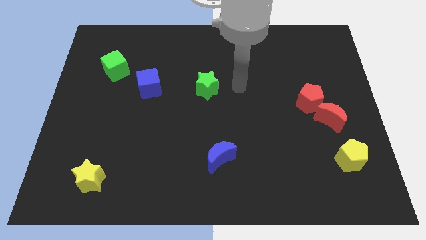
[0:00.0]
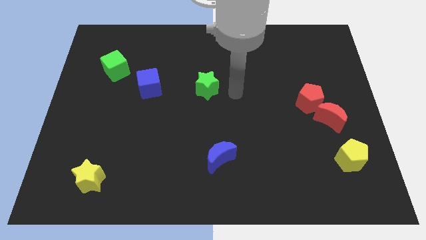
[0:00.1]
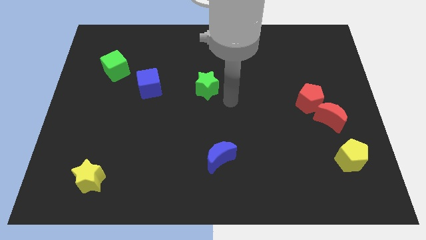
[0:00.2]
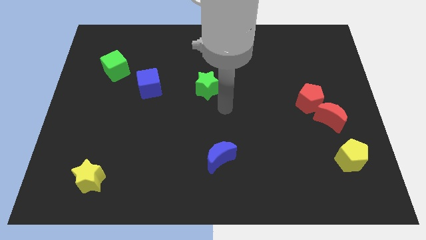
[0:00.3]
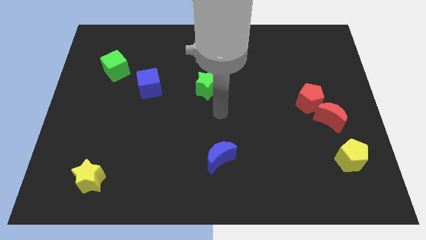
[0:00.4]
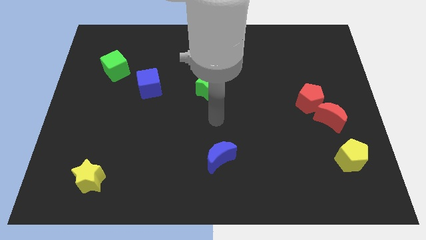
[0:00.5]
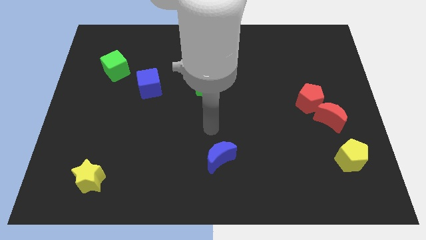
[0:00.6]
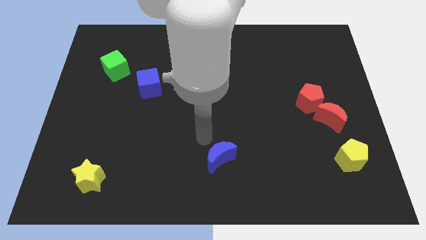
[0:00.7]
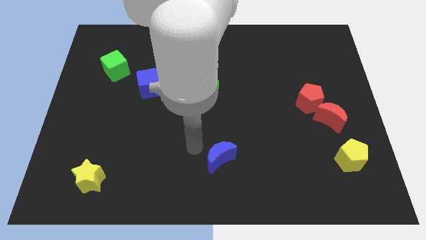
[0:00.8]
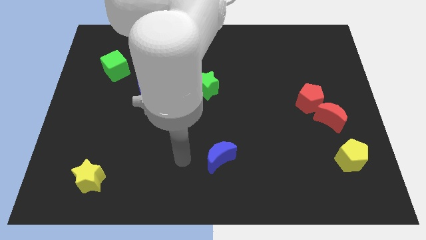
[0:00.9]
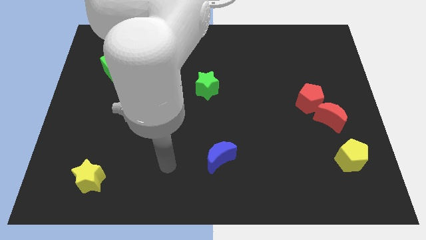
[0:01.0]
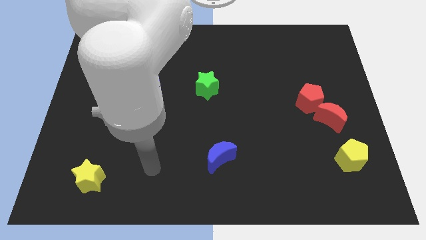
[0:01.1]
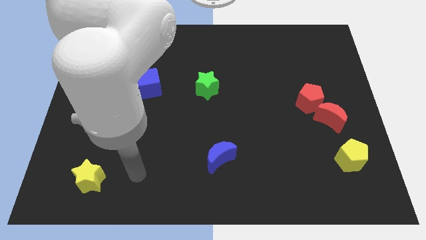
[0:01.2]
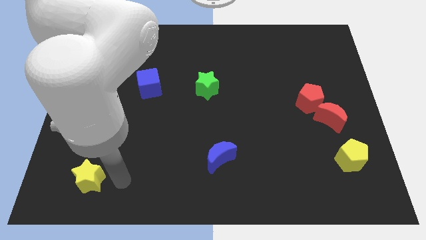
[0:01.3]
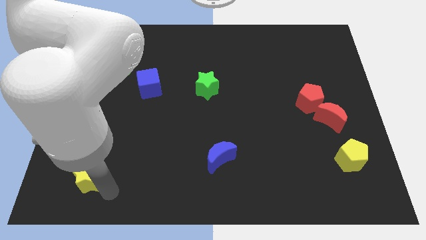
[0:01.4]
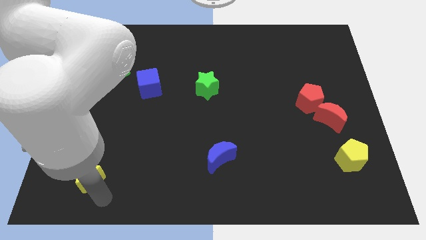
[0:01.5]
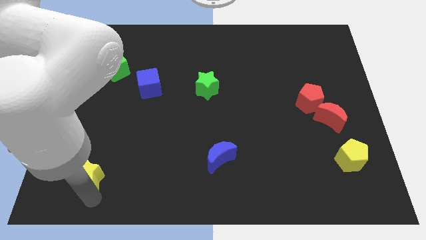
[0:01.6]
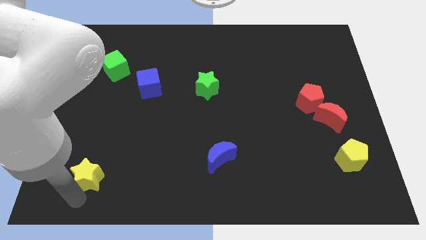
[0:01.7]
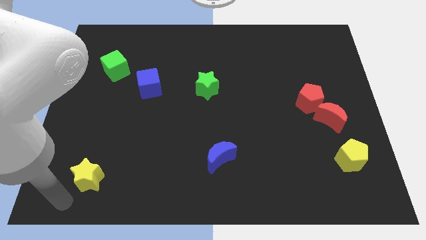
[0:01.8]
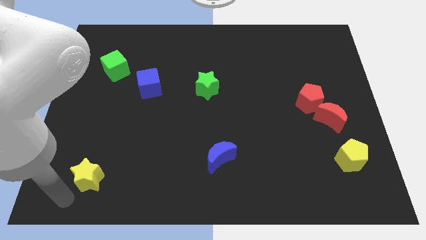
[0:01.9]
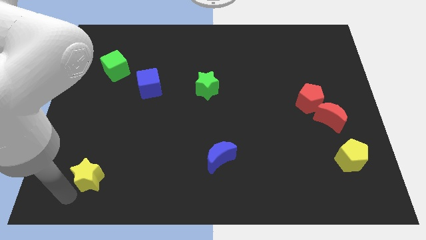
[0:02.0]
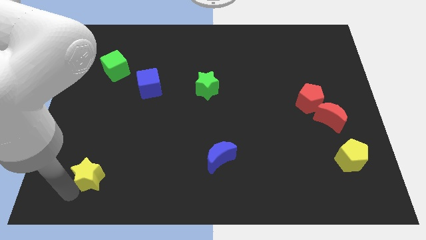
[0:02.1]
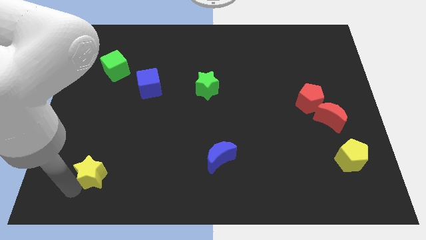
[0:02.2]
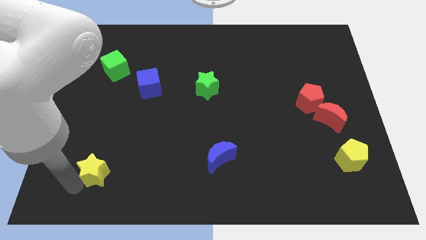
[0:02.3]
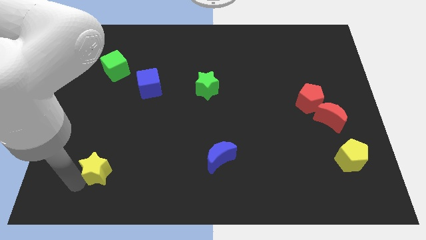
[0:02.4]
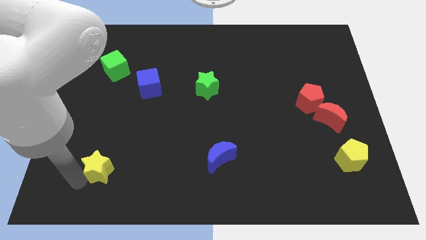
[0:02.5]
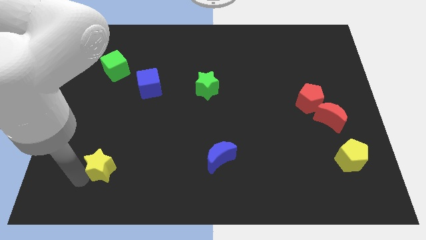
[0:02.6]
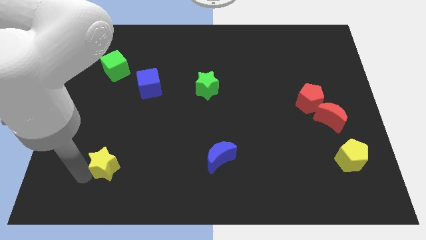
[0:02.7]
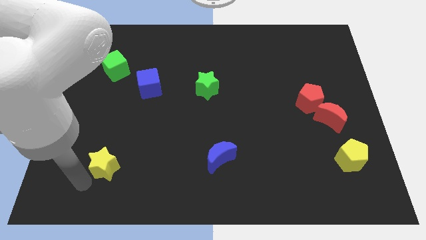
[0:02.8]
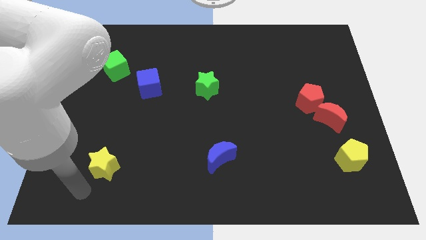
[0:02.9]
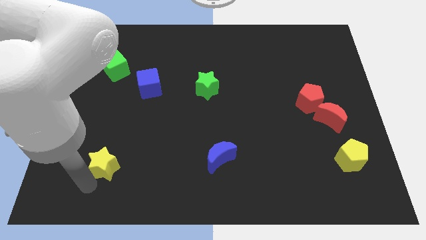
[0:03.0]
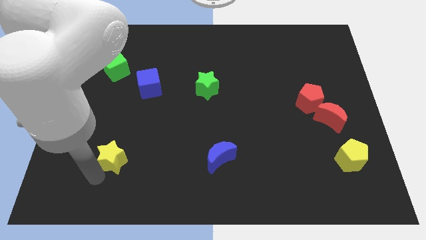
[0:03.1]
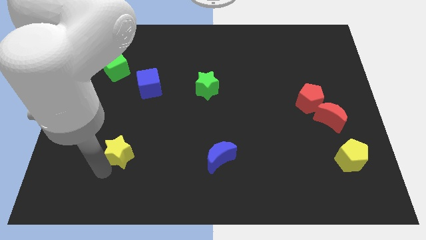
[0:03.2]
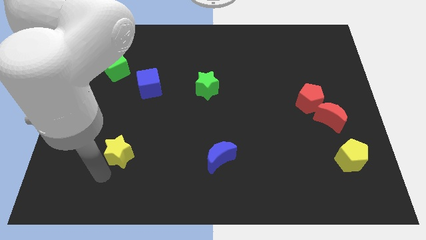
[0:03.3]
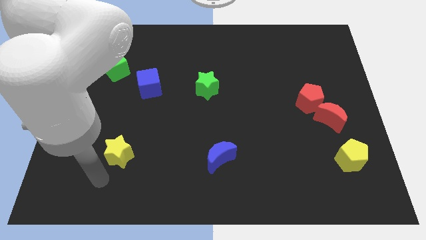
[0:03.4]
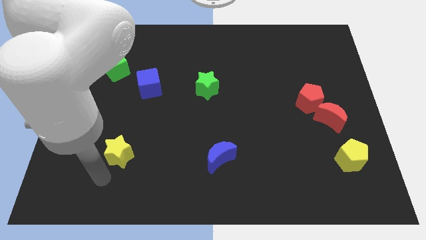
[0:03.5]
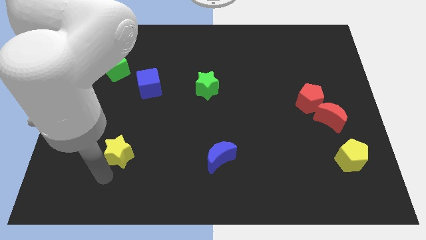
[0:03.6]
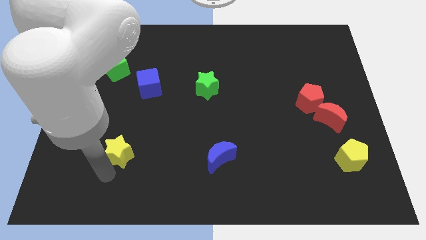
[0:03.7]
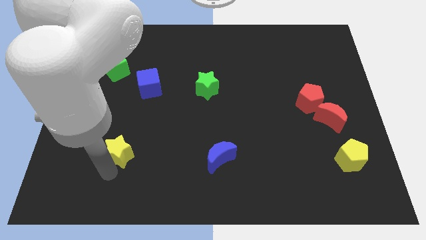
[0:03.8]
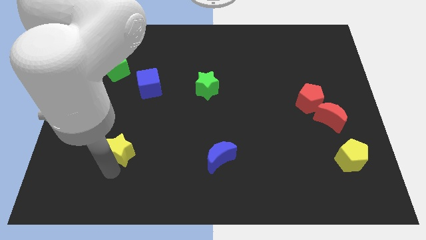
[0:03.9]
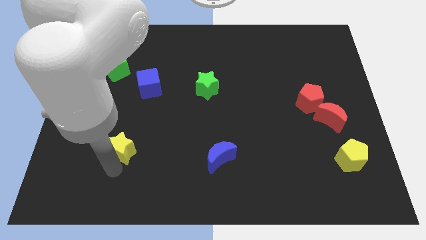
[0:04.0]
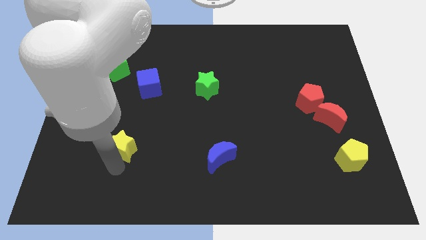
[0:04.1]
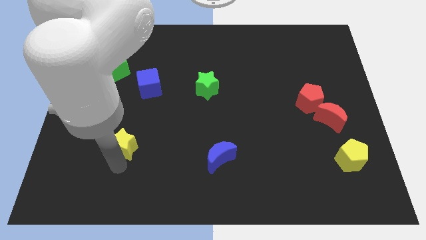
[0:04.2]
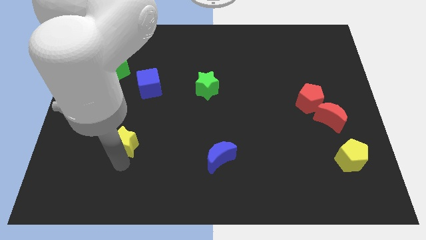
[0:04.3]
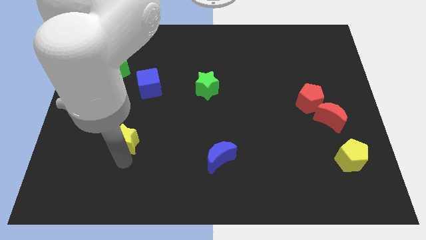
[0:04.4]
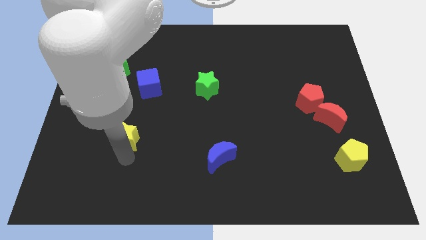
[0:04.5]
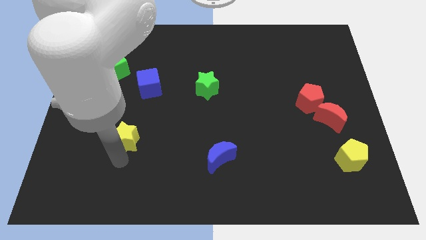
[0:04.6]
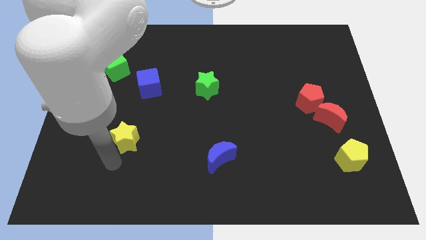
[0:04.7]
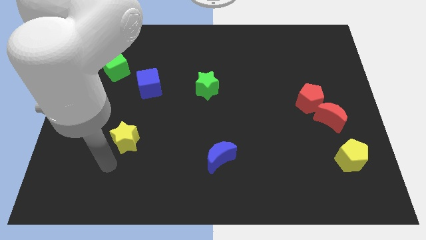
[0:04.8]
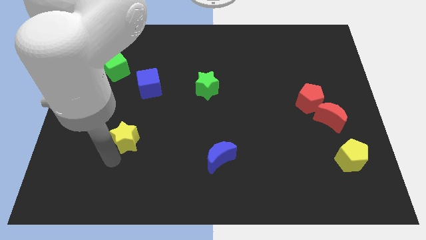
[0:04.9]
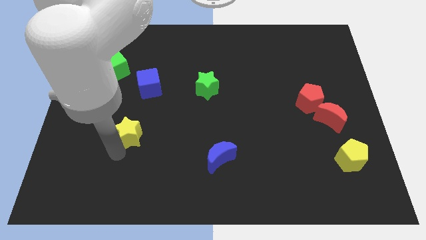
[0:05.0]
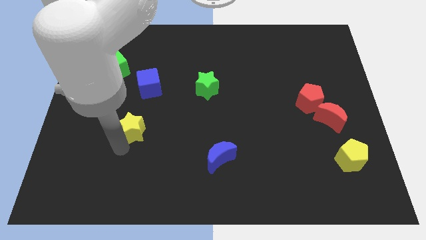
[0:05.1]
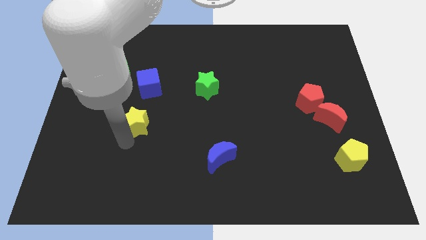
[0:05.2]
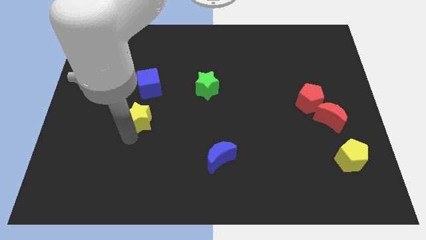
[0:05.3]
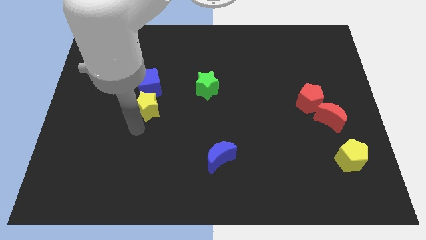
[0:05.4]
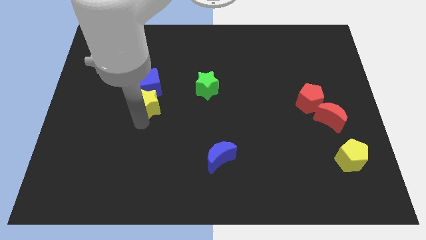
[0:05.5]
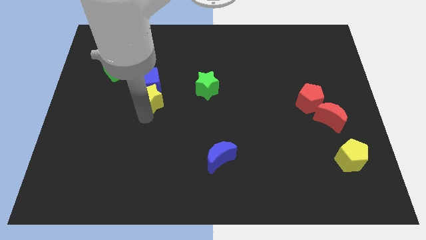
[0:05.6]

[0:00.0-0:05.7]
put the yellow star next to the blue cube

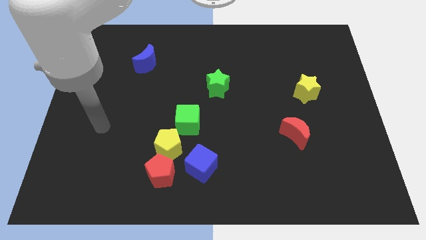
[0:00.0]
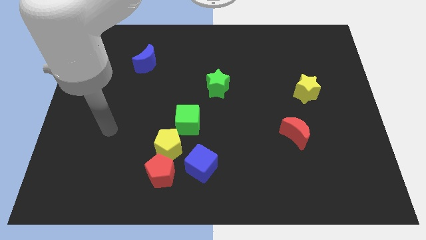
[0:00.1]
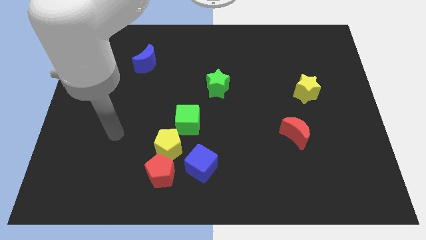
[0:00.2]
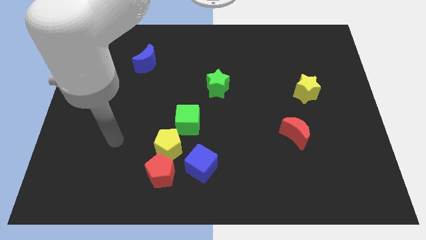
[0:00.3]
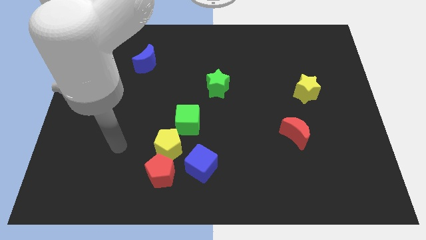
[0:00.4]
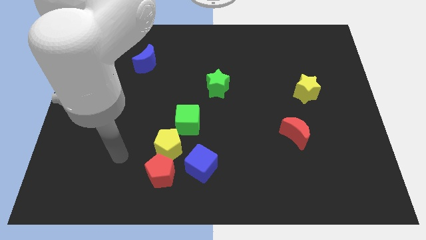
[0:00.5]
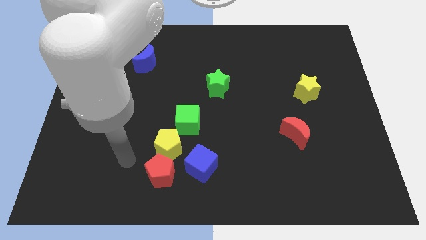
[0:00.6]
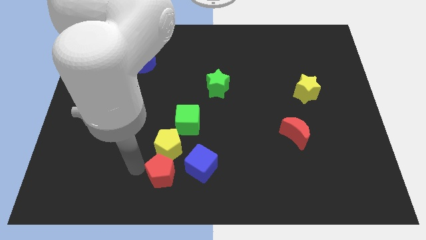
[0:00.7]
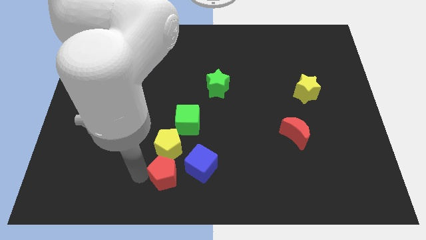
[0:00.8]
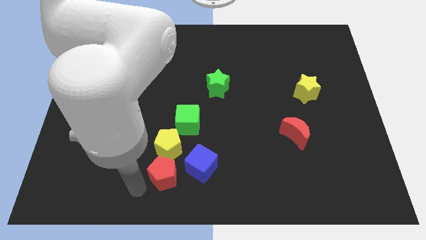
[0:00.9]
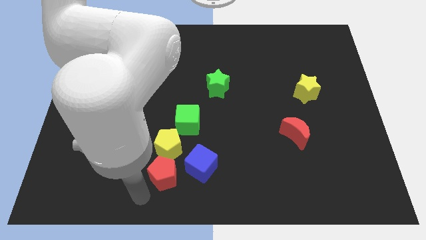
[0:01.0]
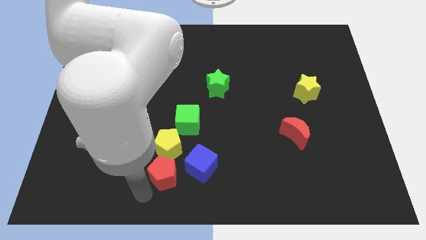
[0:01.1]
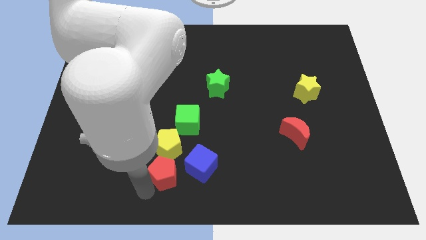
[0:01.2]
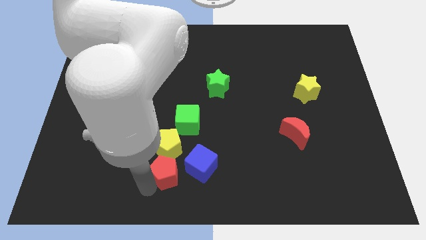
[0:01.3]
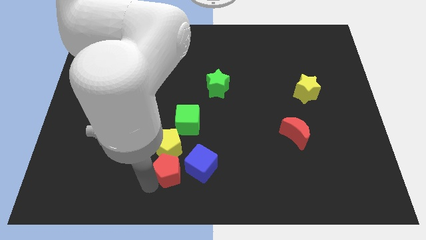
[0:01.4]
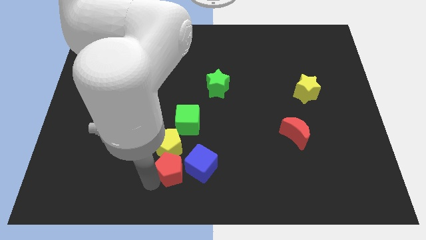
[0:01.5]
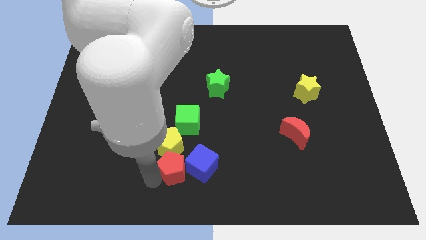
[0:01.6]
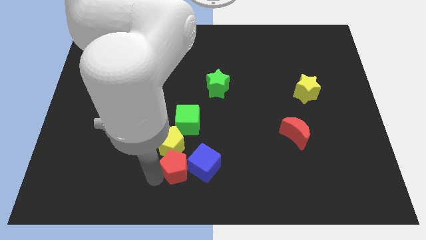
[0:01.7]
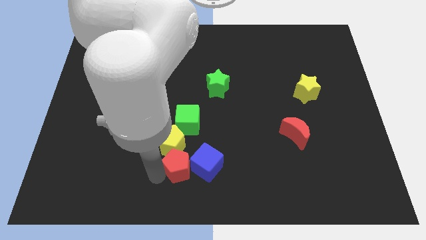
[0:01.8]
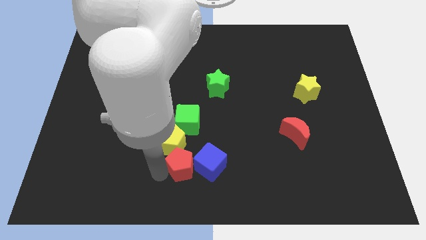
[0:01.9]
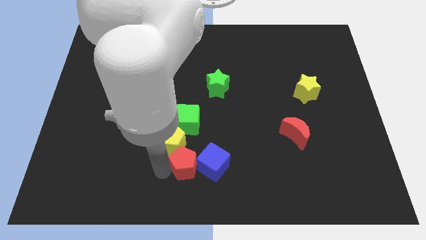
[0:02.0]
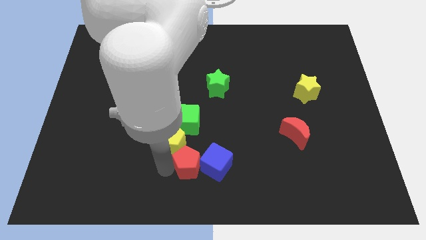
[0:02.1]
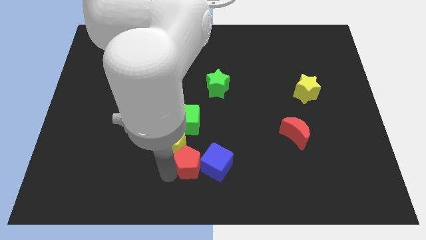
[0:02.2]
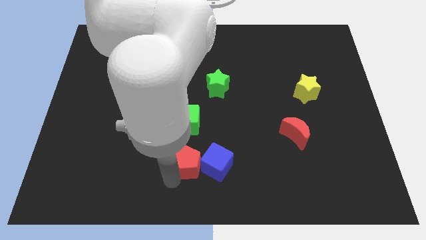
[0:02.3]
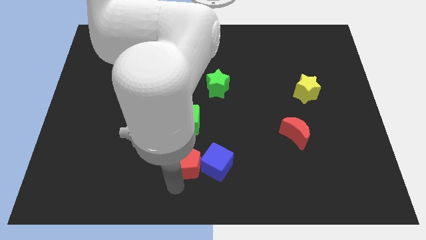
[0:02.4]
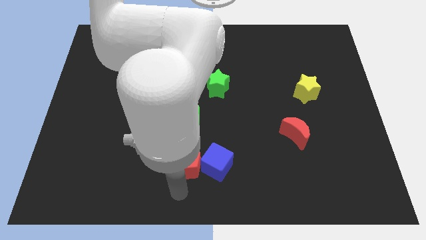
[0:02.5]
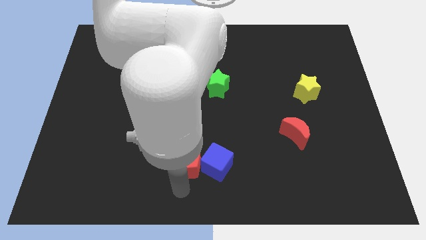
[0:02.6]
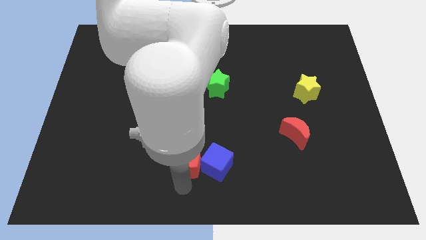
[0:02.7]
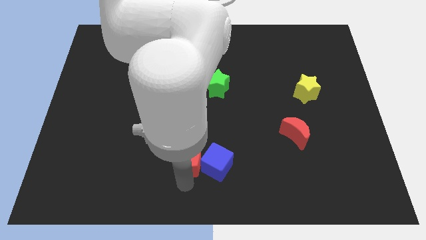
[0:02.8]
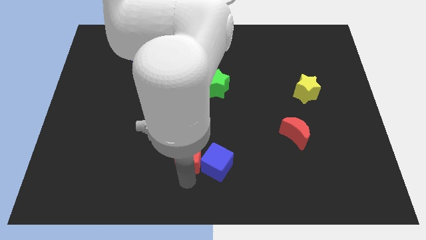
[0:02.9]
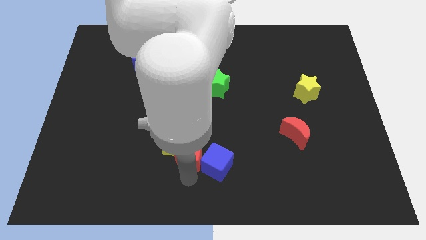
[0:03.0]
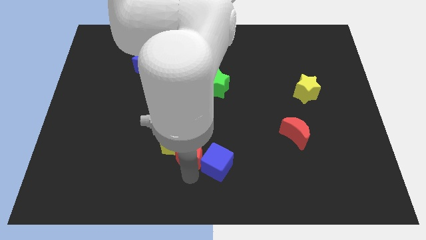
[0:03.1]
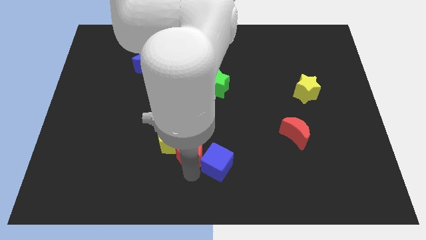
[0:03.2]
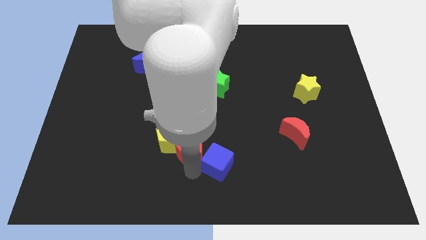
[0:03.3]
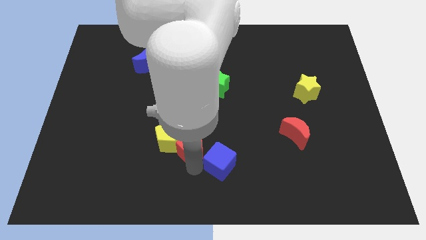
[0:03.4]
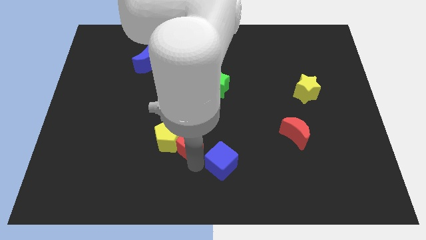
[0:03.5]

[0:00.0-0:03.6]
move the red pentagon towards the green cube
